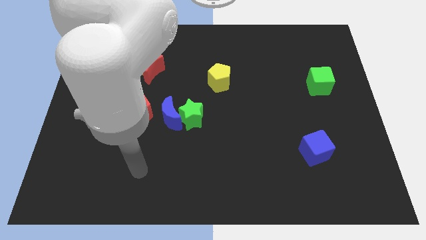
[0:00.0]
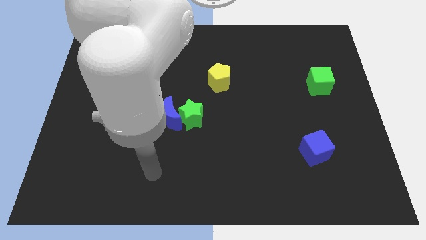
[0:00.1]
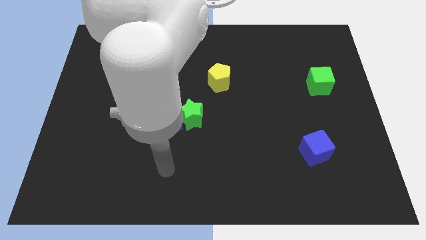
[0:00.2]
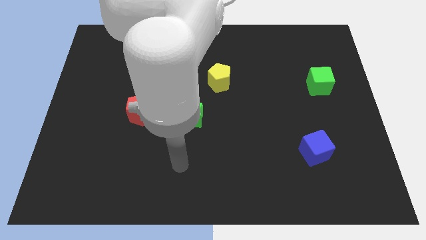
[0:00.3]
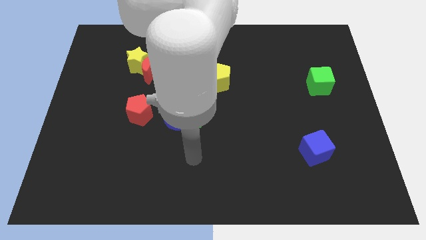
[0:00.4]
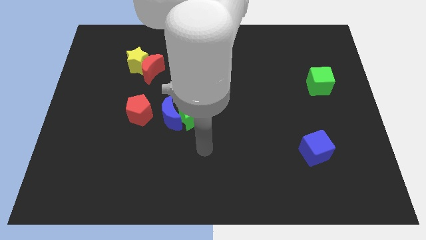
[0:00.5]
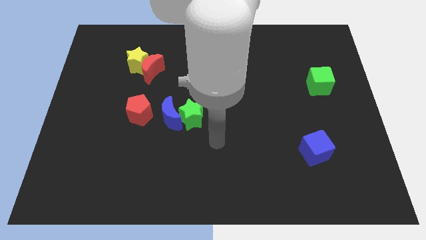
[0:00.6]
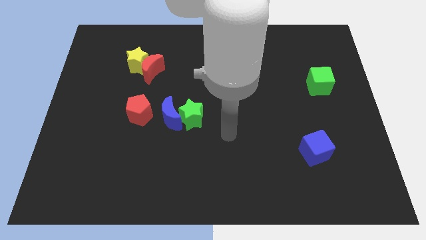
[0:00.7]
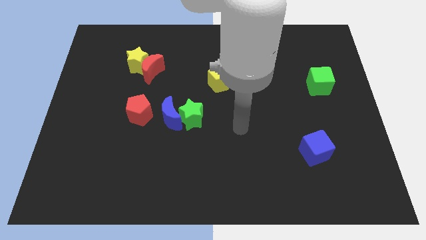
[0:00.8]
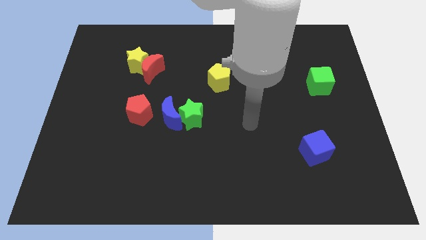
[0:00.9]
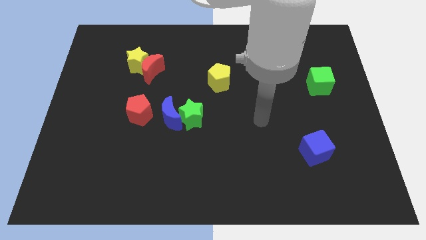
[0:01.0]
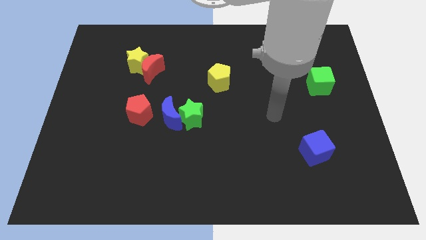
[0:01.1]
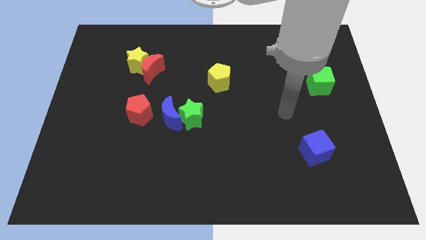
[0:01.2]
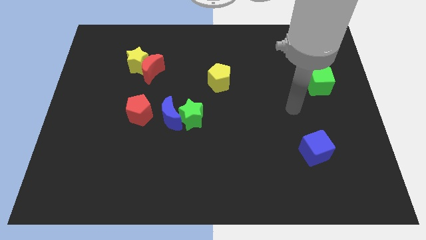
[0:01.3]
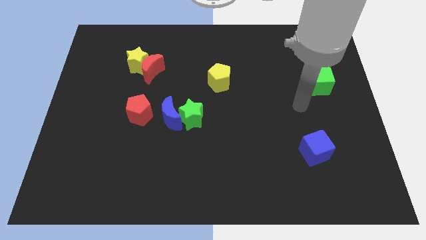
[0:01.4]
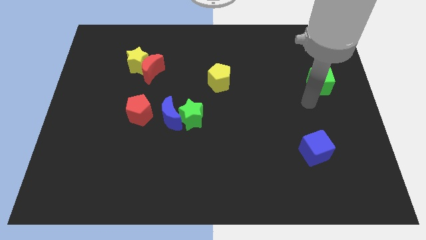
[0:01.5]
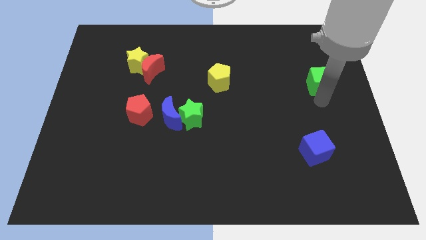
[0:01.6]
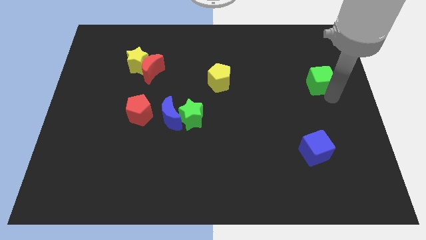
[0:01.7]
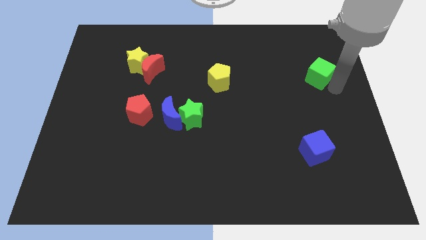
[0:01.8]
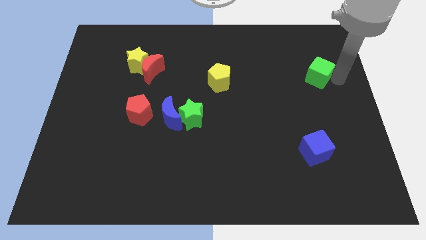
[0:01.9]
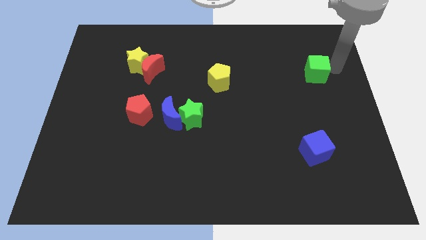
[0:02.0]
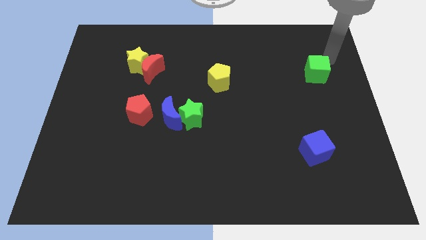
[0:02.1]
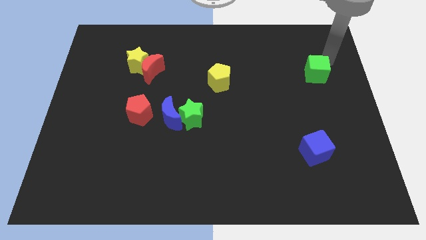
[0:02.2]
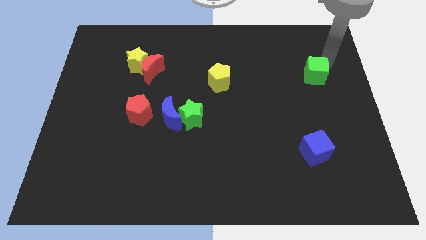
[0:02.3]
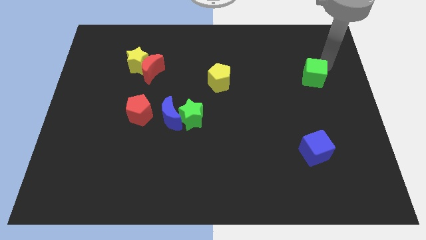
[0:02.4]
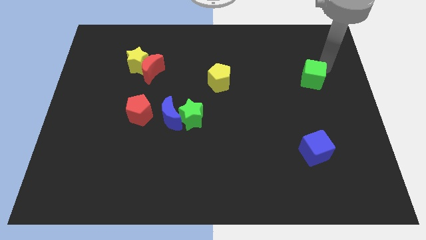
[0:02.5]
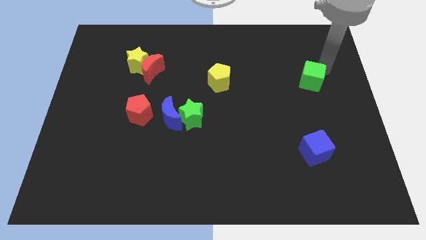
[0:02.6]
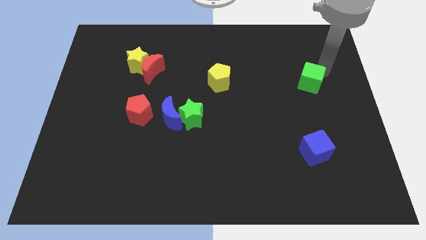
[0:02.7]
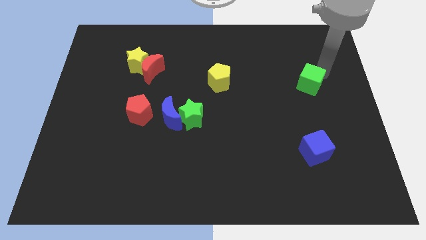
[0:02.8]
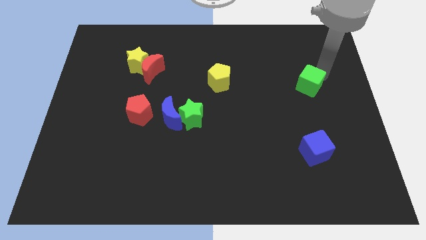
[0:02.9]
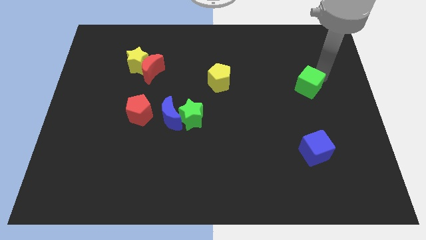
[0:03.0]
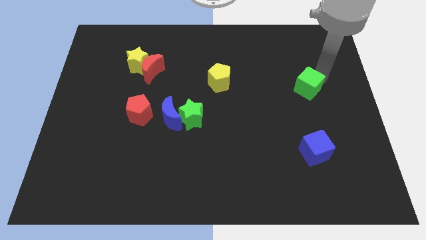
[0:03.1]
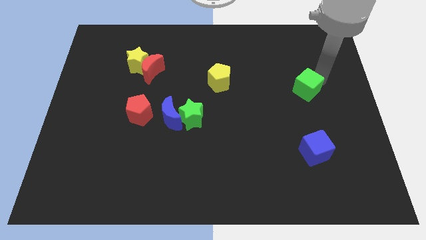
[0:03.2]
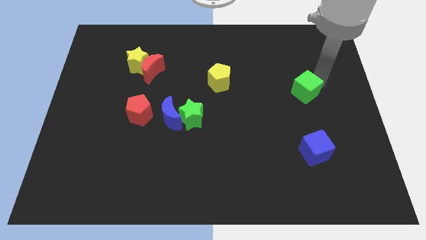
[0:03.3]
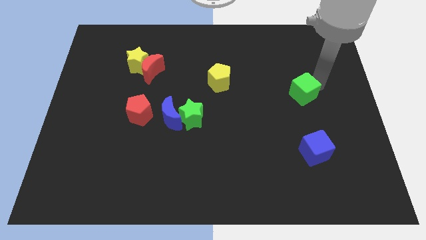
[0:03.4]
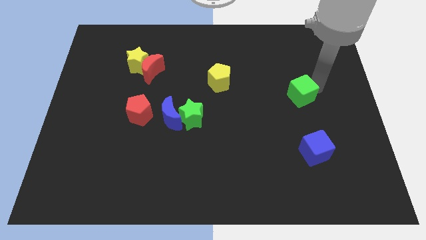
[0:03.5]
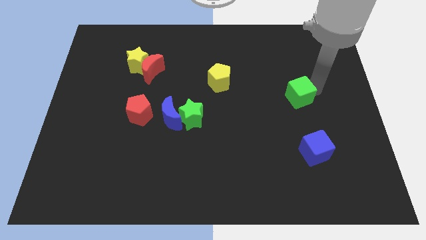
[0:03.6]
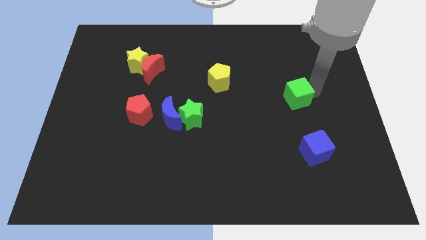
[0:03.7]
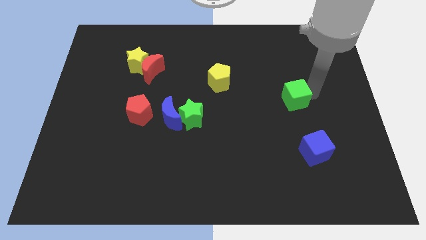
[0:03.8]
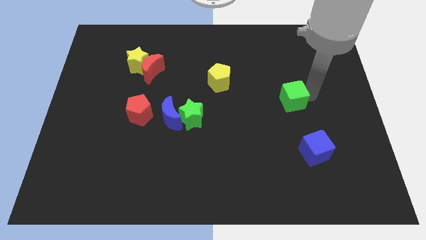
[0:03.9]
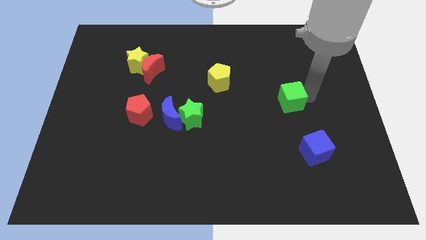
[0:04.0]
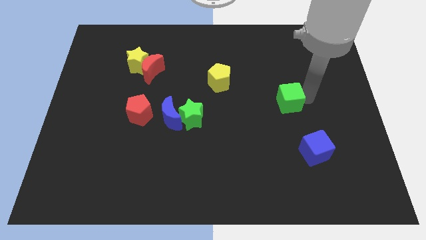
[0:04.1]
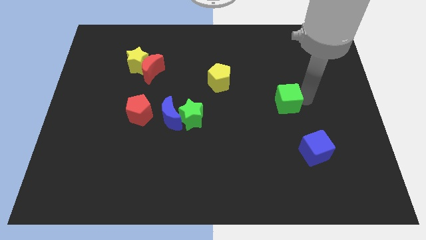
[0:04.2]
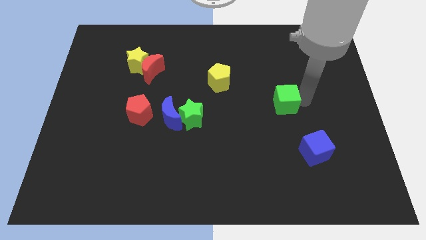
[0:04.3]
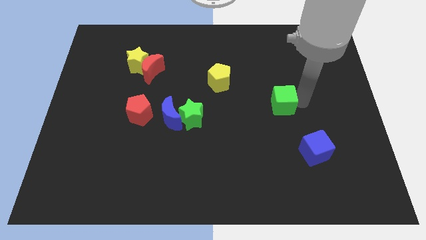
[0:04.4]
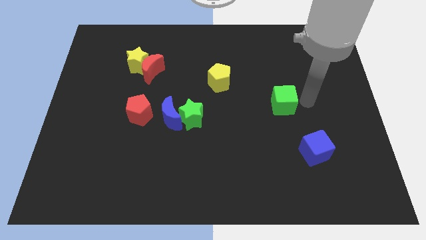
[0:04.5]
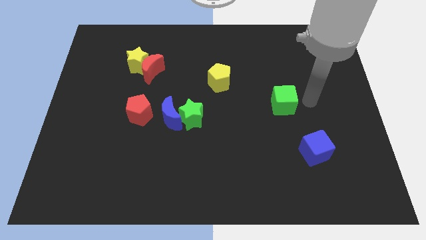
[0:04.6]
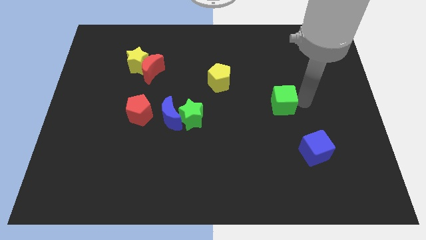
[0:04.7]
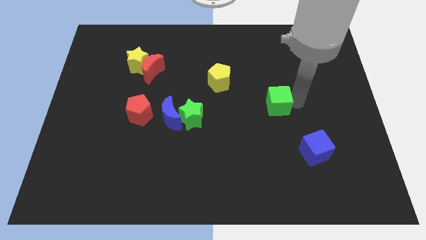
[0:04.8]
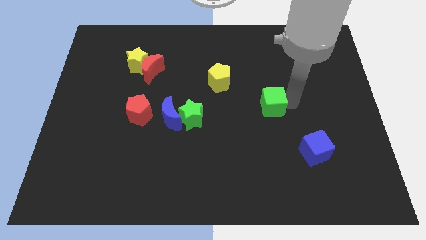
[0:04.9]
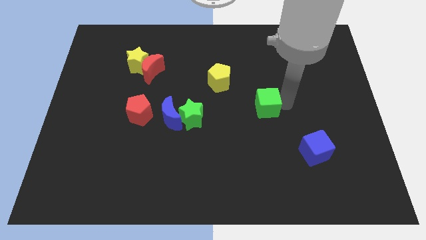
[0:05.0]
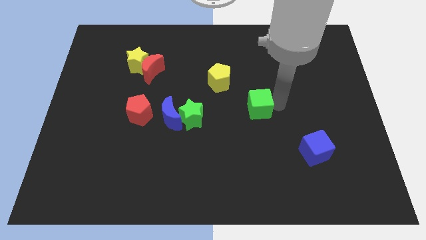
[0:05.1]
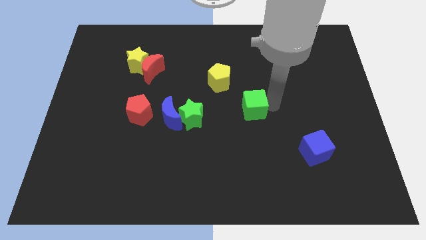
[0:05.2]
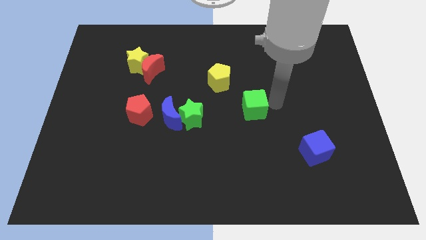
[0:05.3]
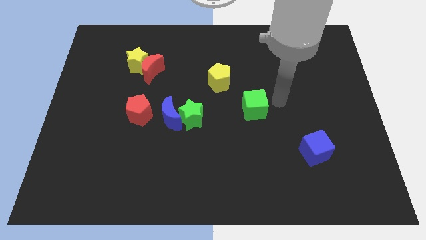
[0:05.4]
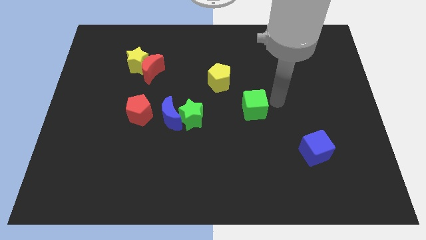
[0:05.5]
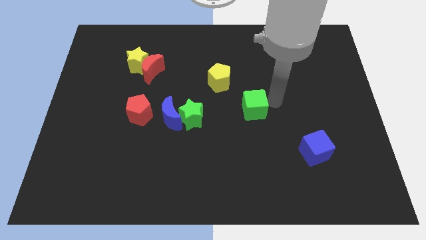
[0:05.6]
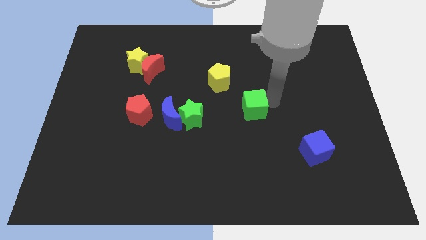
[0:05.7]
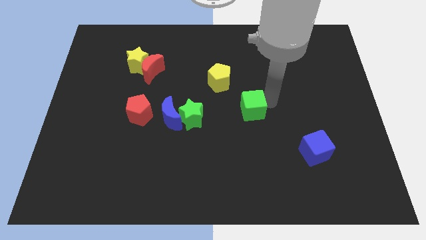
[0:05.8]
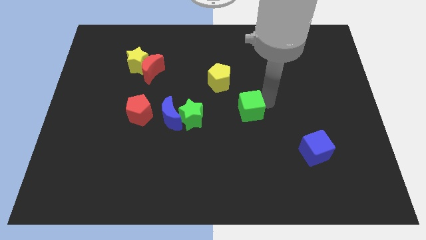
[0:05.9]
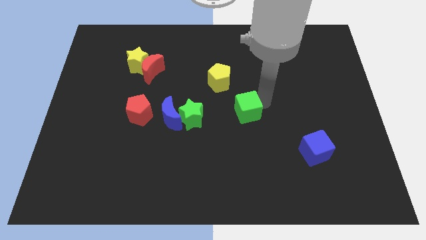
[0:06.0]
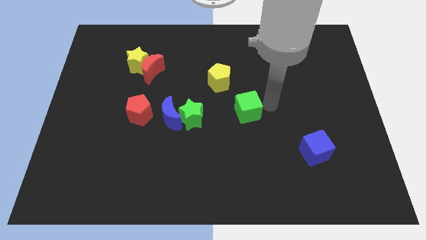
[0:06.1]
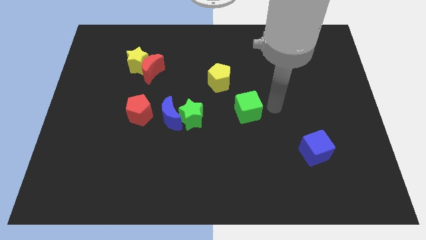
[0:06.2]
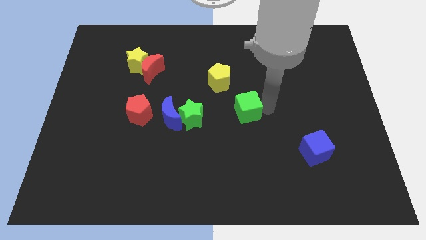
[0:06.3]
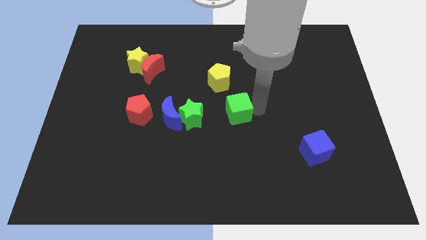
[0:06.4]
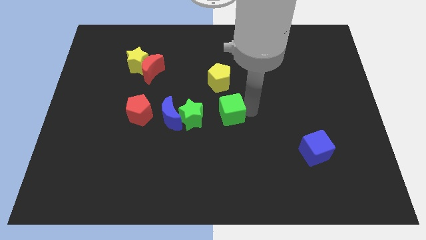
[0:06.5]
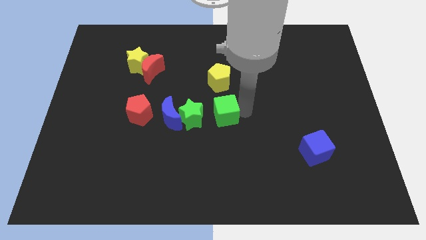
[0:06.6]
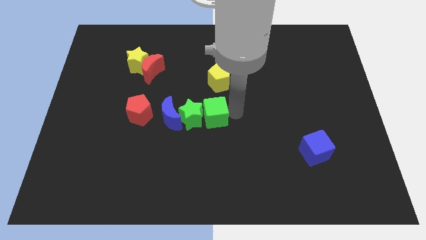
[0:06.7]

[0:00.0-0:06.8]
push the green cube next to the green star

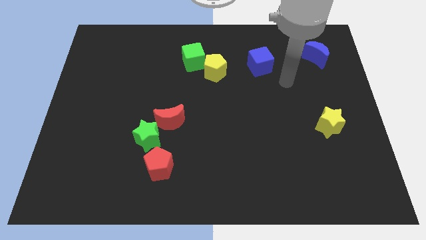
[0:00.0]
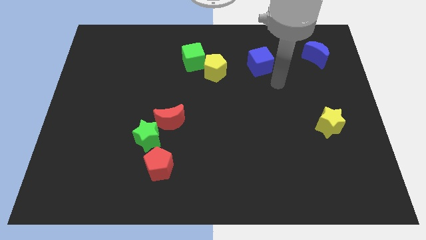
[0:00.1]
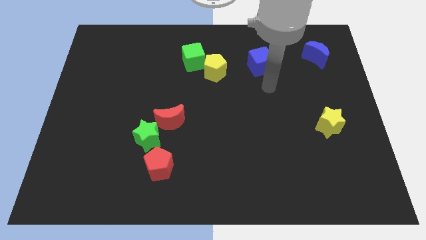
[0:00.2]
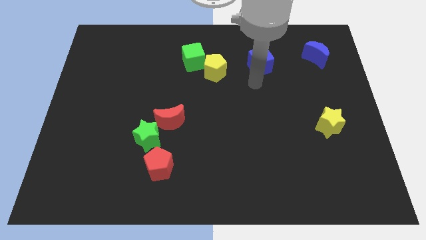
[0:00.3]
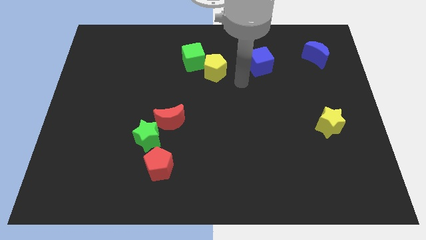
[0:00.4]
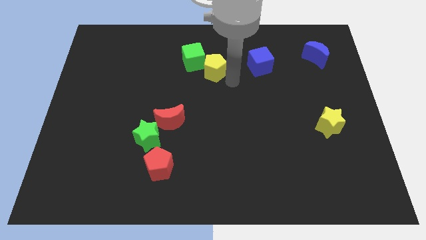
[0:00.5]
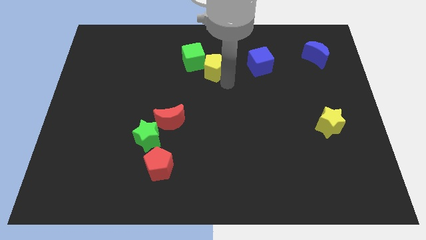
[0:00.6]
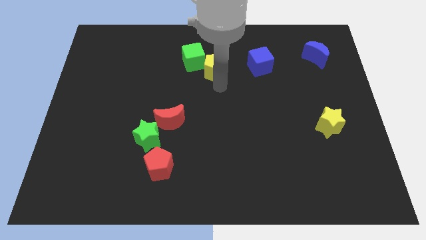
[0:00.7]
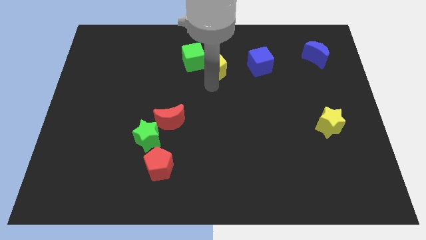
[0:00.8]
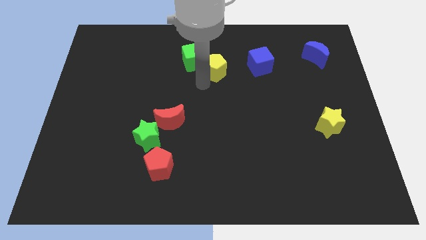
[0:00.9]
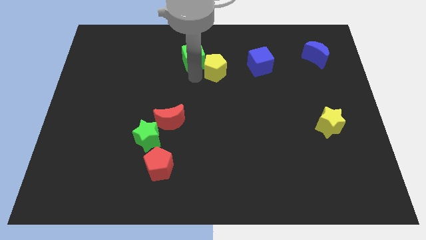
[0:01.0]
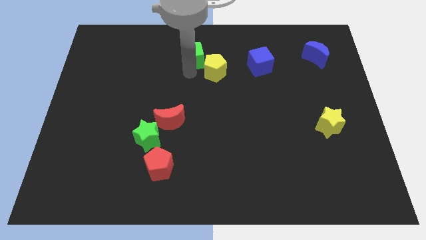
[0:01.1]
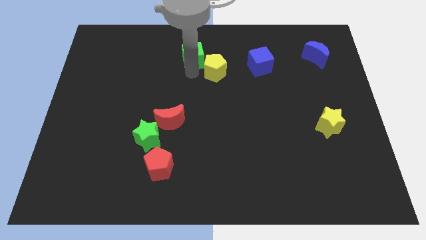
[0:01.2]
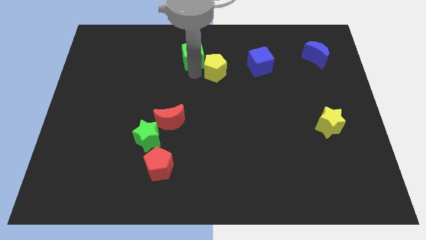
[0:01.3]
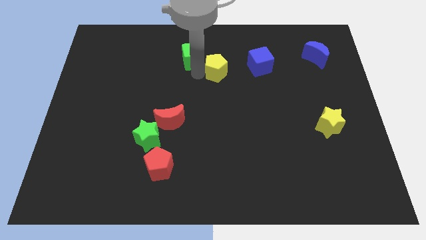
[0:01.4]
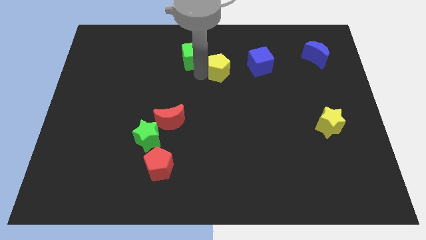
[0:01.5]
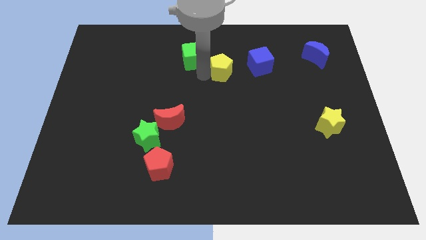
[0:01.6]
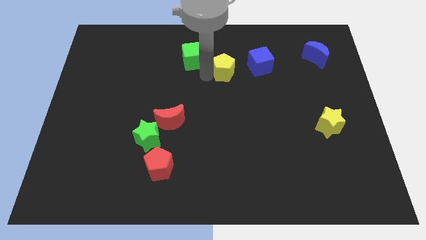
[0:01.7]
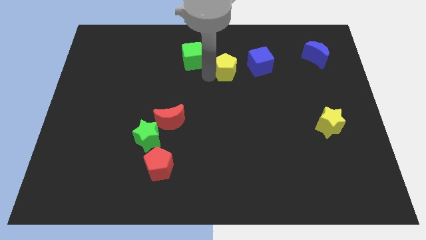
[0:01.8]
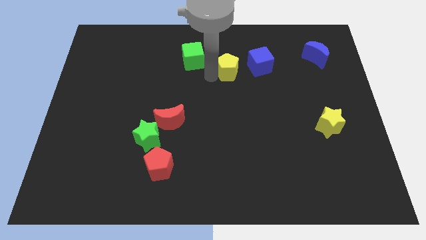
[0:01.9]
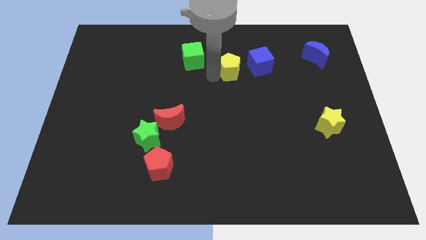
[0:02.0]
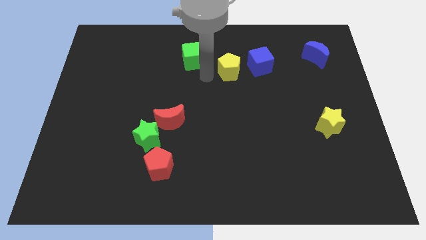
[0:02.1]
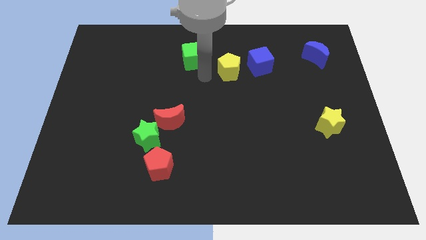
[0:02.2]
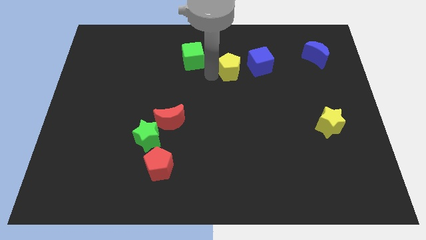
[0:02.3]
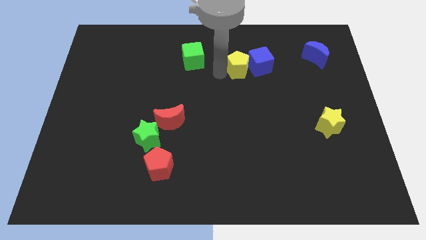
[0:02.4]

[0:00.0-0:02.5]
push the yellow pentagon next to the blue cube
